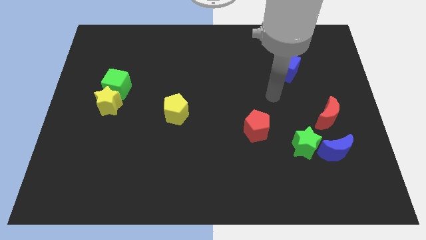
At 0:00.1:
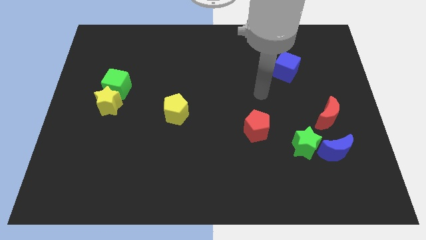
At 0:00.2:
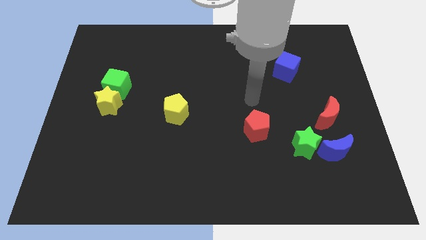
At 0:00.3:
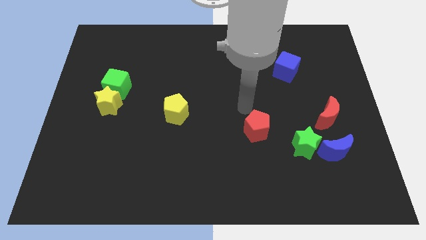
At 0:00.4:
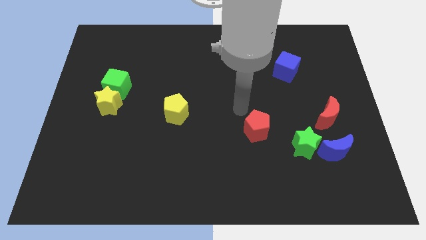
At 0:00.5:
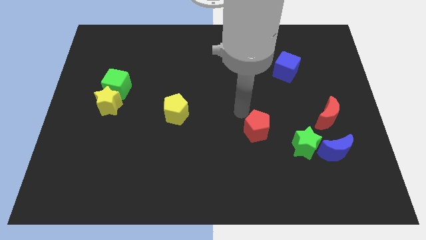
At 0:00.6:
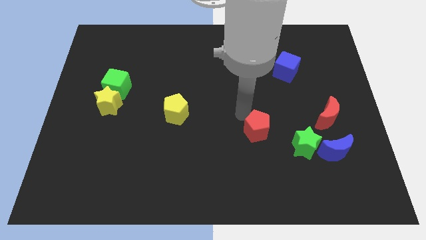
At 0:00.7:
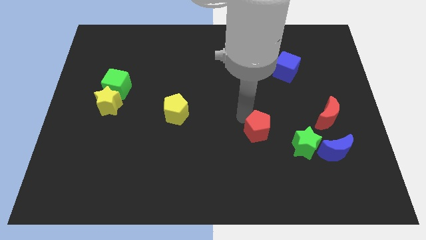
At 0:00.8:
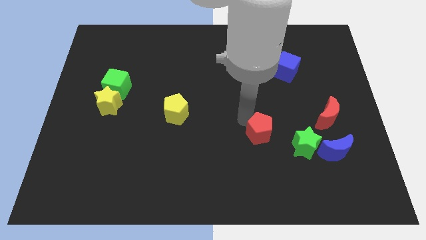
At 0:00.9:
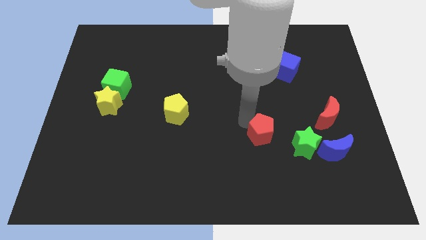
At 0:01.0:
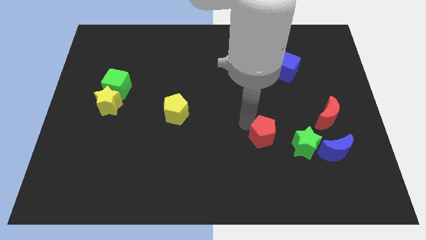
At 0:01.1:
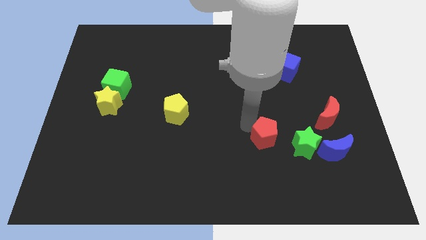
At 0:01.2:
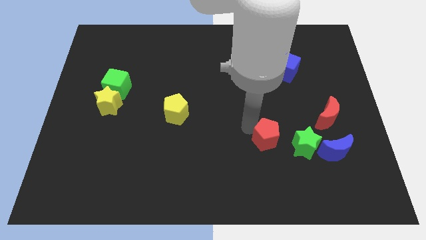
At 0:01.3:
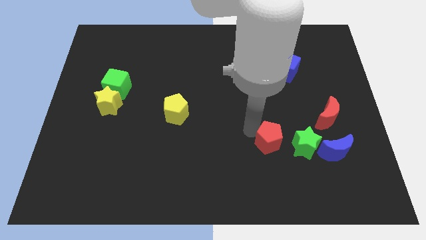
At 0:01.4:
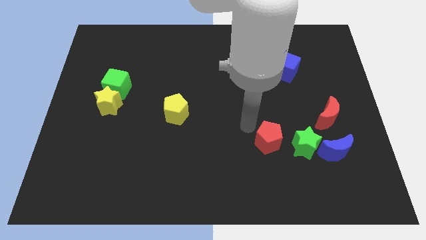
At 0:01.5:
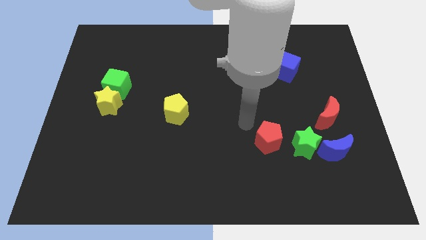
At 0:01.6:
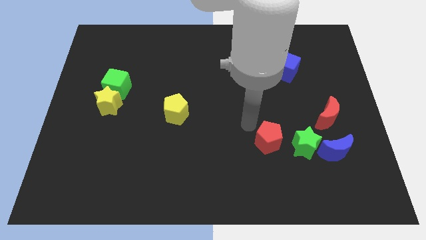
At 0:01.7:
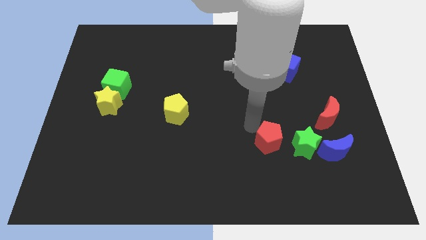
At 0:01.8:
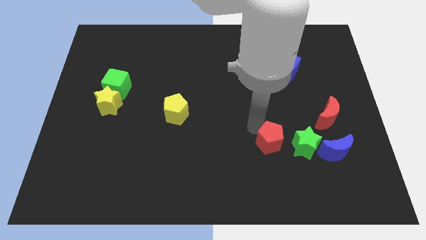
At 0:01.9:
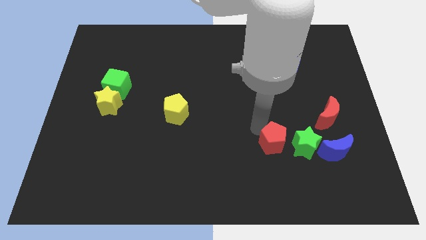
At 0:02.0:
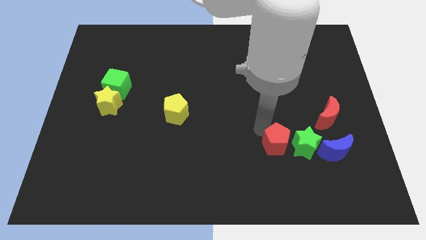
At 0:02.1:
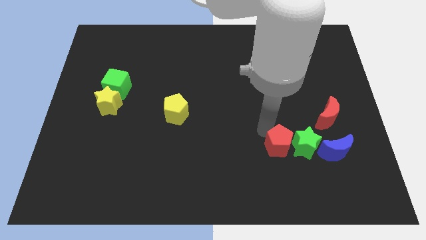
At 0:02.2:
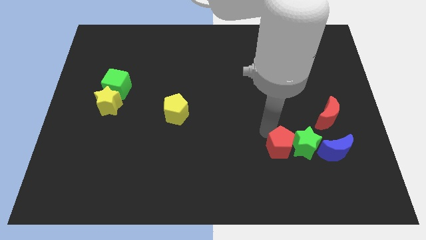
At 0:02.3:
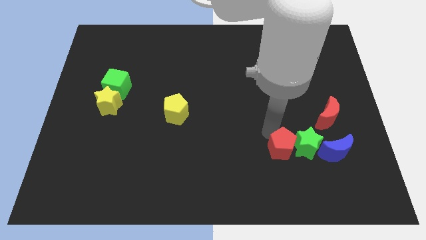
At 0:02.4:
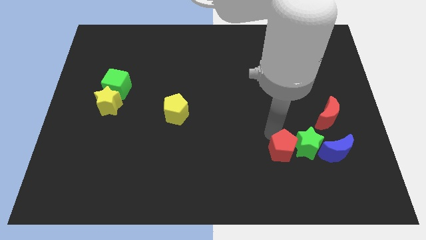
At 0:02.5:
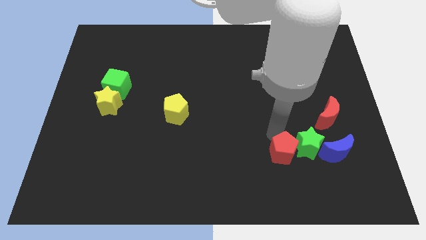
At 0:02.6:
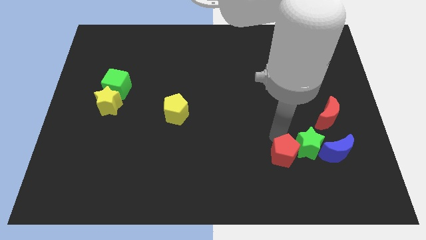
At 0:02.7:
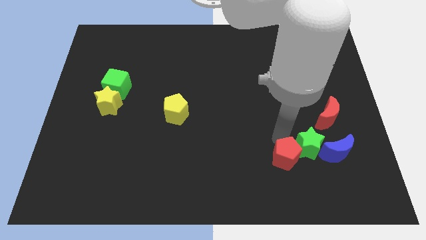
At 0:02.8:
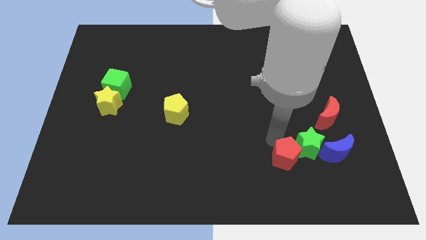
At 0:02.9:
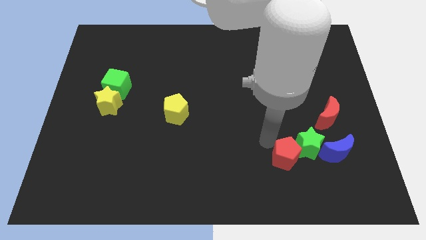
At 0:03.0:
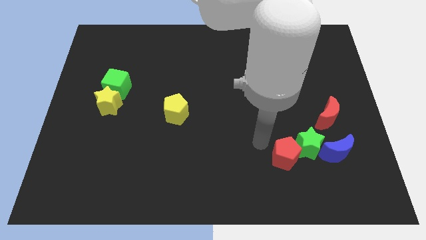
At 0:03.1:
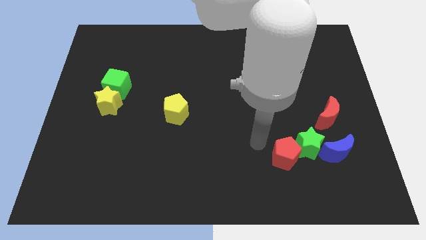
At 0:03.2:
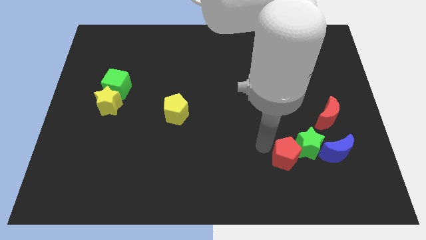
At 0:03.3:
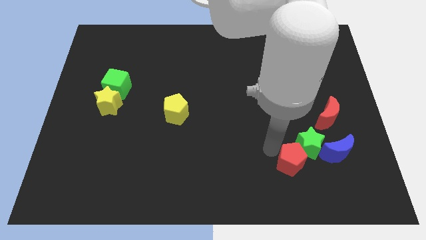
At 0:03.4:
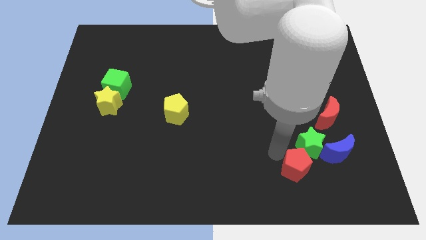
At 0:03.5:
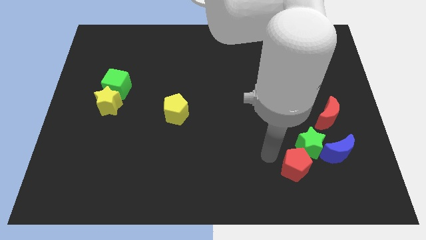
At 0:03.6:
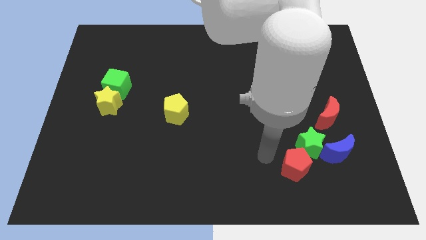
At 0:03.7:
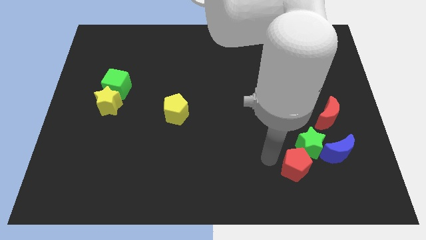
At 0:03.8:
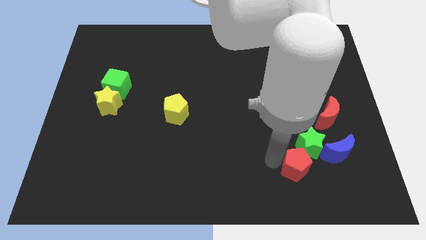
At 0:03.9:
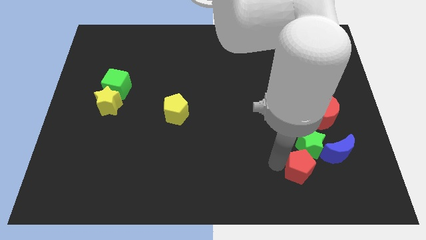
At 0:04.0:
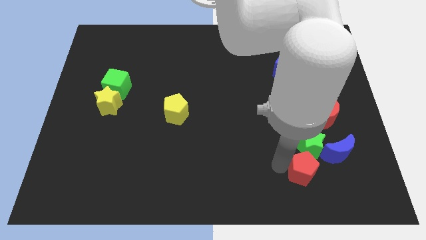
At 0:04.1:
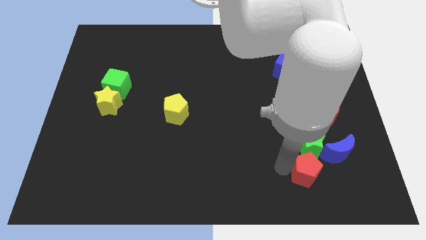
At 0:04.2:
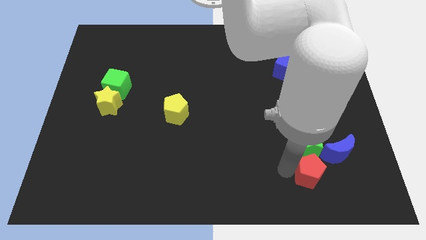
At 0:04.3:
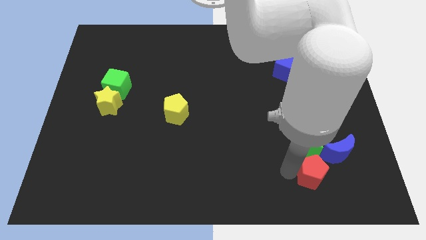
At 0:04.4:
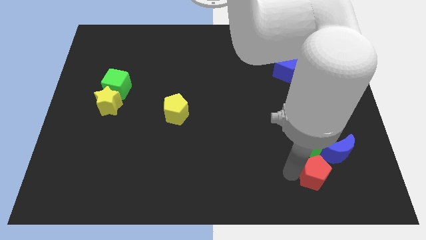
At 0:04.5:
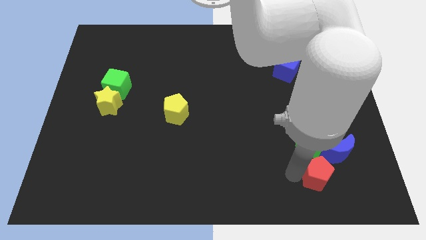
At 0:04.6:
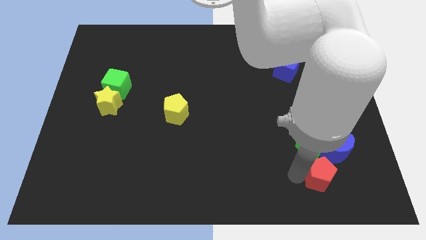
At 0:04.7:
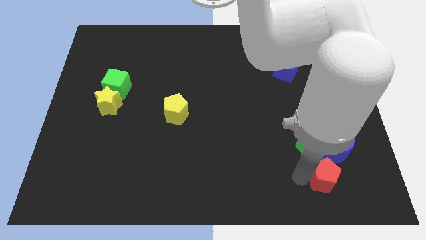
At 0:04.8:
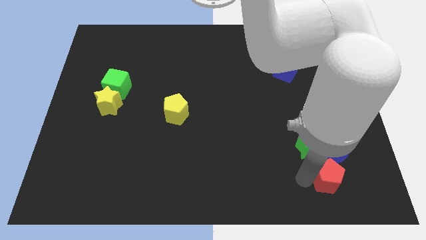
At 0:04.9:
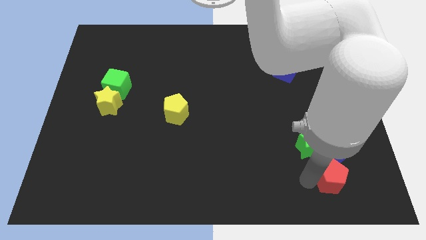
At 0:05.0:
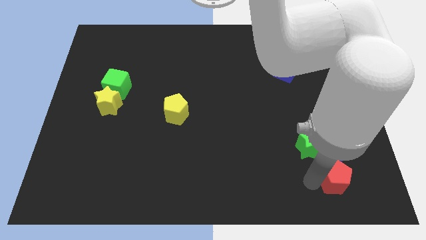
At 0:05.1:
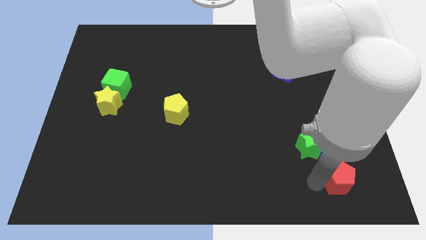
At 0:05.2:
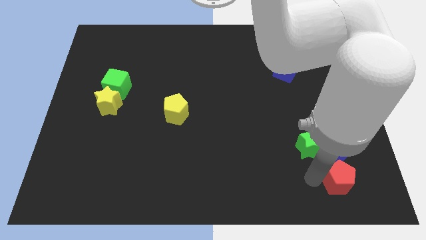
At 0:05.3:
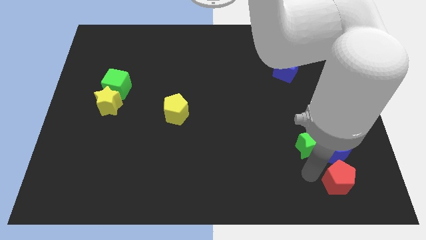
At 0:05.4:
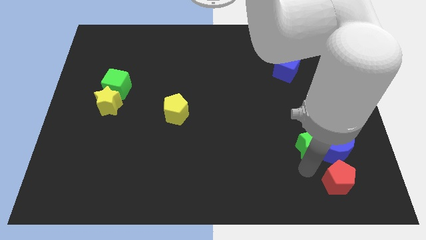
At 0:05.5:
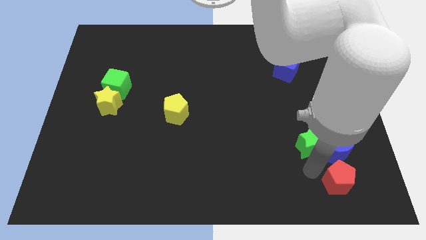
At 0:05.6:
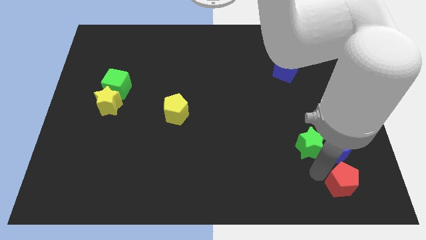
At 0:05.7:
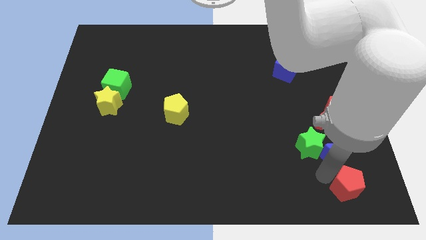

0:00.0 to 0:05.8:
push the red pentagon to the bottom right

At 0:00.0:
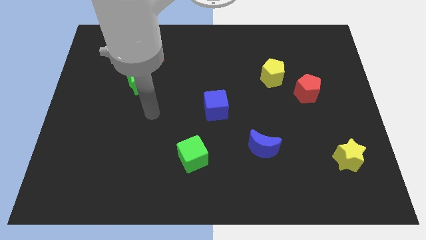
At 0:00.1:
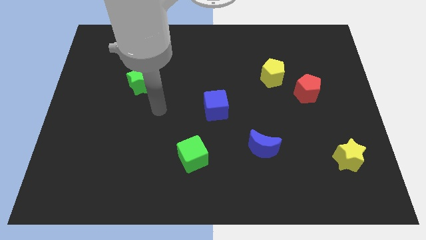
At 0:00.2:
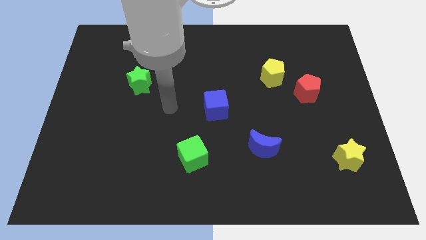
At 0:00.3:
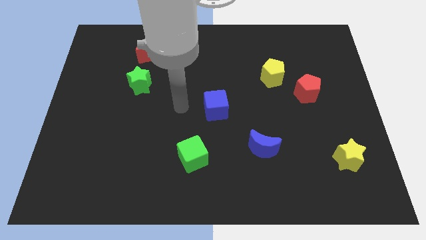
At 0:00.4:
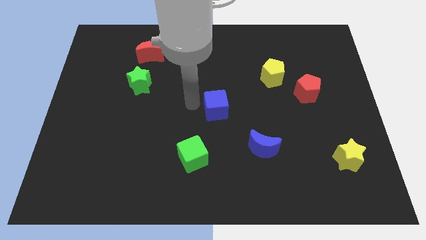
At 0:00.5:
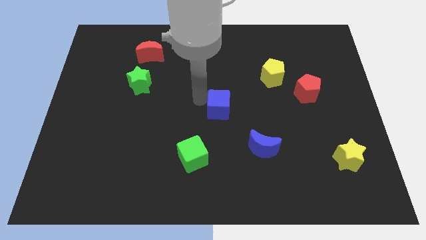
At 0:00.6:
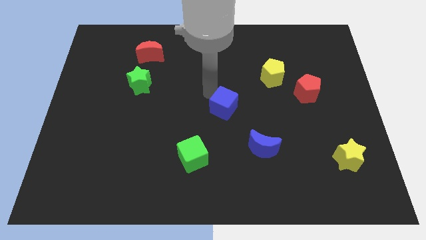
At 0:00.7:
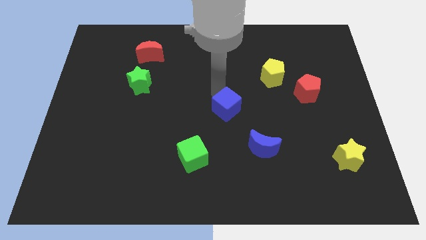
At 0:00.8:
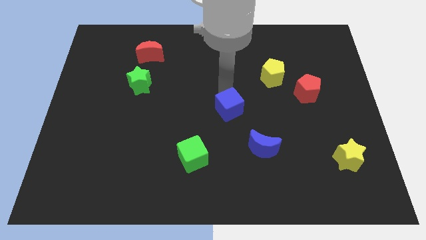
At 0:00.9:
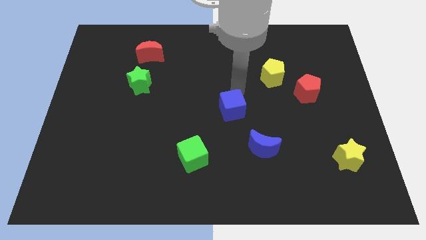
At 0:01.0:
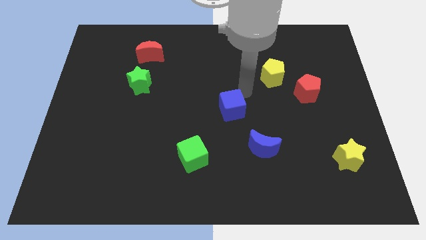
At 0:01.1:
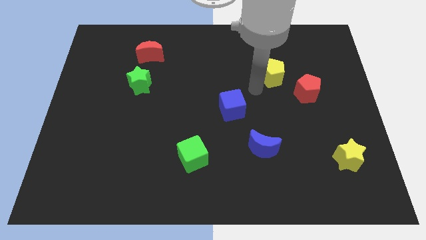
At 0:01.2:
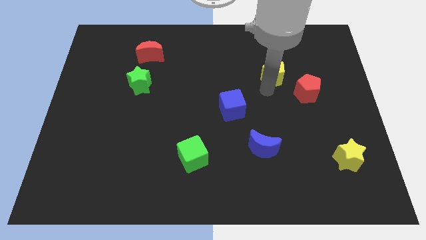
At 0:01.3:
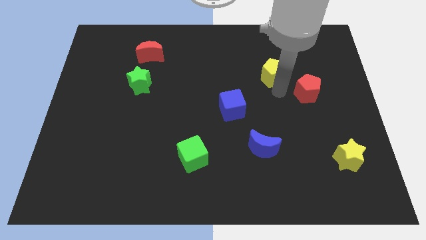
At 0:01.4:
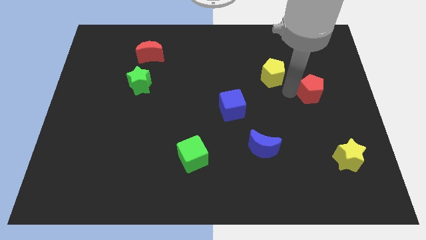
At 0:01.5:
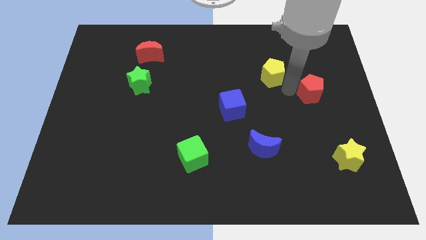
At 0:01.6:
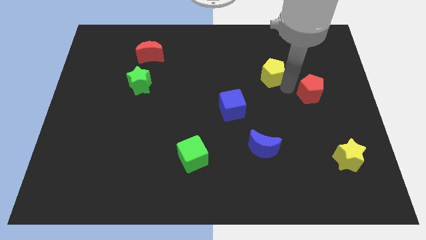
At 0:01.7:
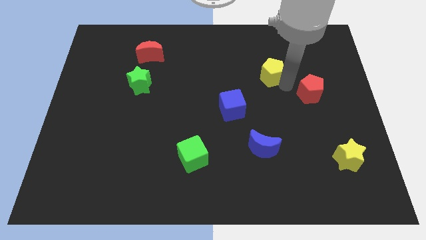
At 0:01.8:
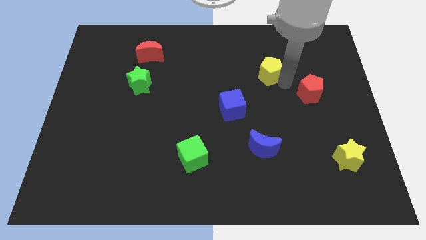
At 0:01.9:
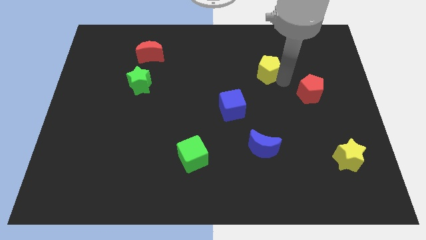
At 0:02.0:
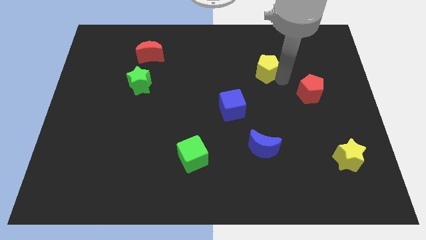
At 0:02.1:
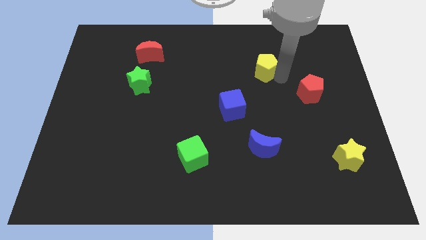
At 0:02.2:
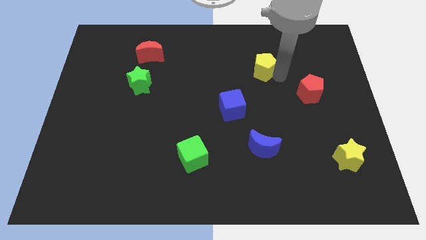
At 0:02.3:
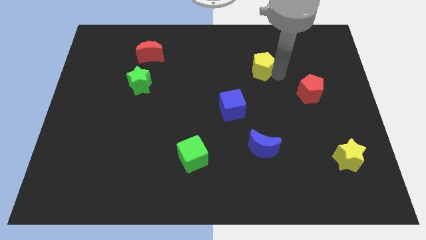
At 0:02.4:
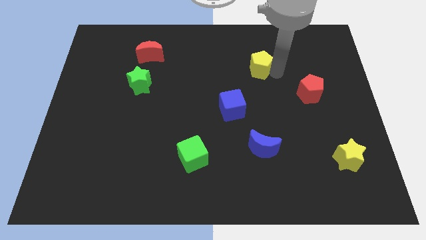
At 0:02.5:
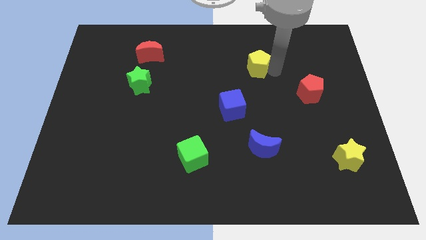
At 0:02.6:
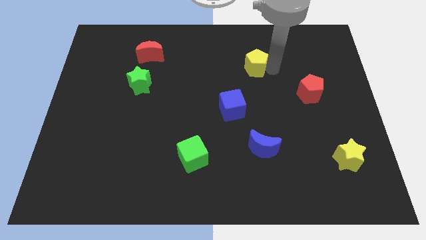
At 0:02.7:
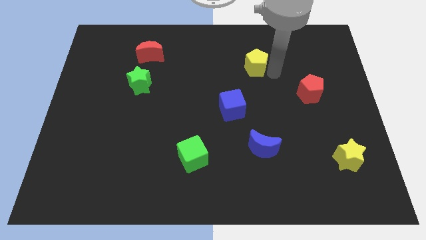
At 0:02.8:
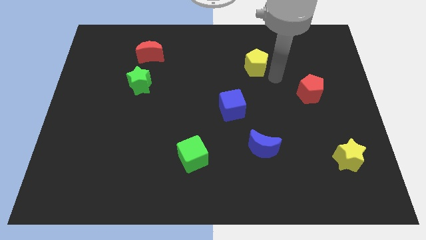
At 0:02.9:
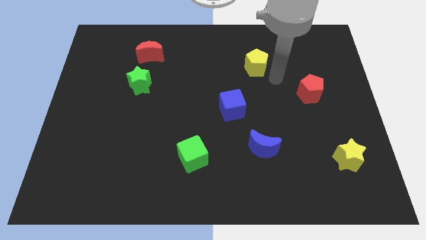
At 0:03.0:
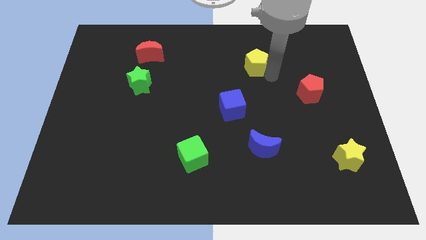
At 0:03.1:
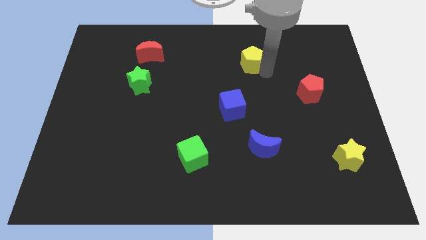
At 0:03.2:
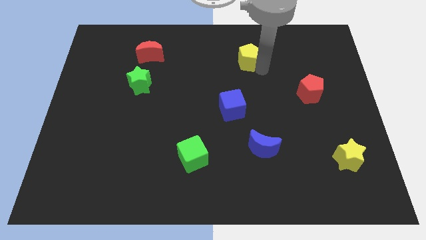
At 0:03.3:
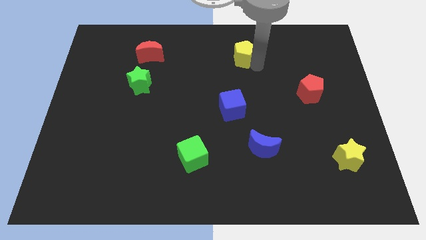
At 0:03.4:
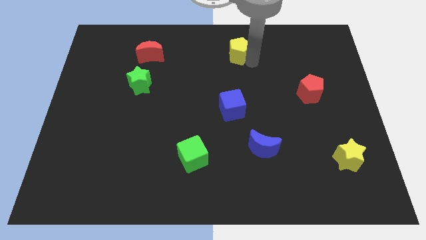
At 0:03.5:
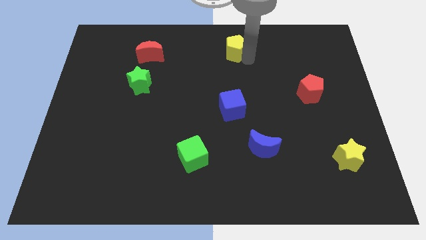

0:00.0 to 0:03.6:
put the yellow pentagon to the top
